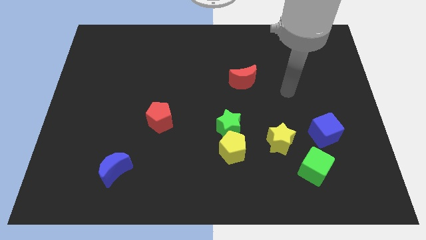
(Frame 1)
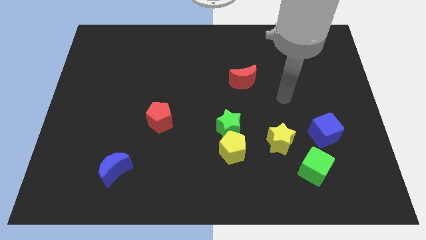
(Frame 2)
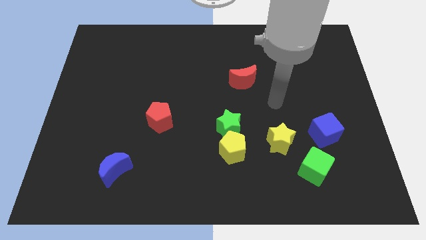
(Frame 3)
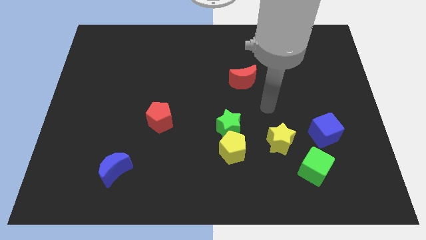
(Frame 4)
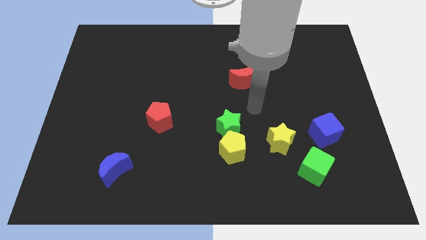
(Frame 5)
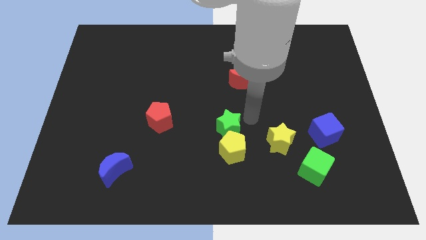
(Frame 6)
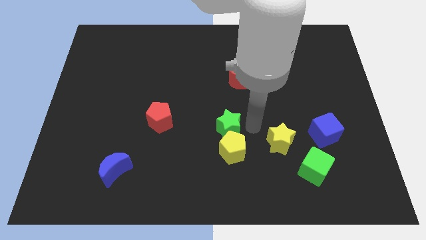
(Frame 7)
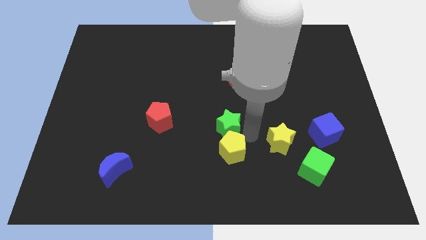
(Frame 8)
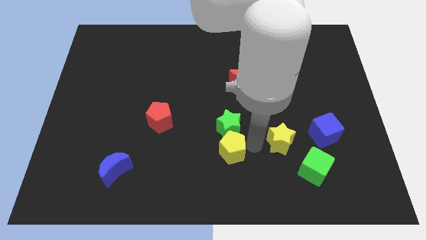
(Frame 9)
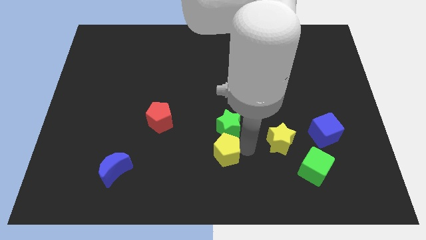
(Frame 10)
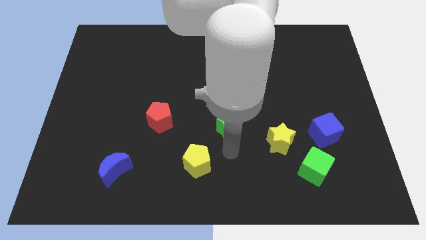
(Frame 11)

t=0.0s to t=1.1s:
separate the green star from the yellow pentagon

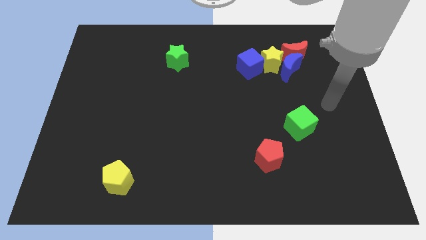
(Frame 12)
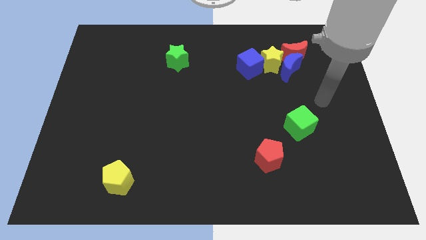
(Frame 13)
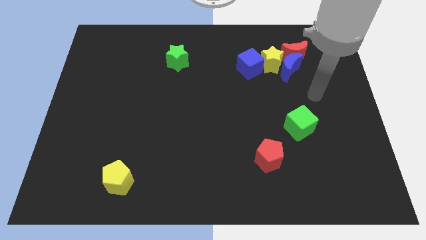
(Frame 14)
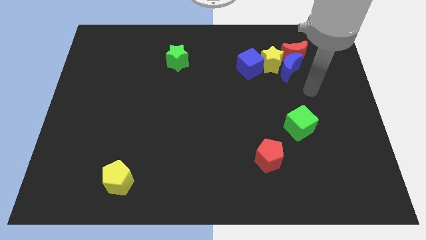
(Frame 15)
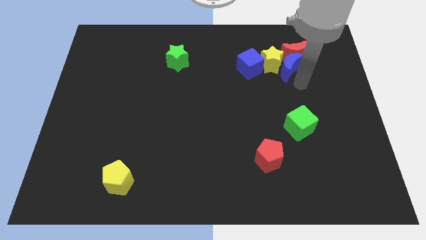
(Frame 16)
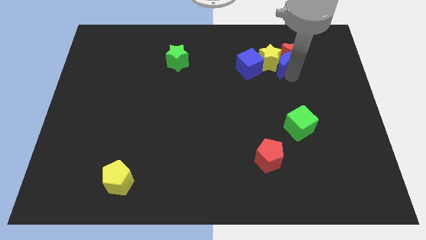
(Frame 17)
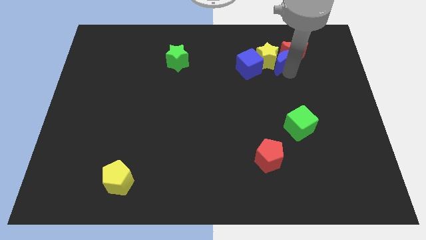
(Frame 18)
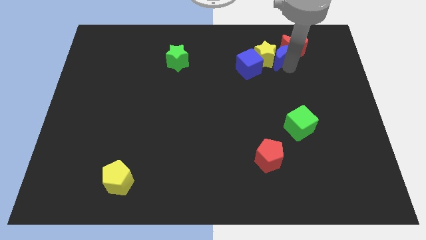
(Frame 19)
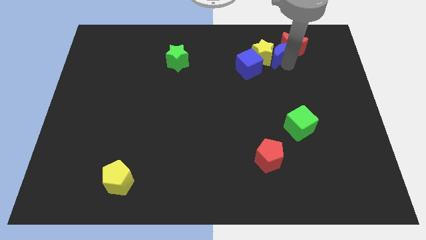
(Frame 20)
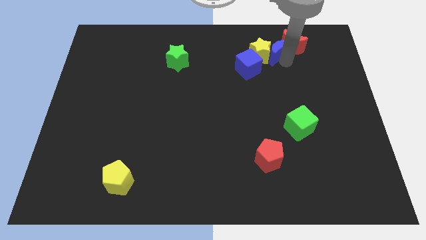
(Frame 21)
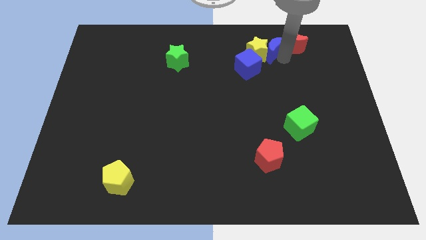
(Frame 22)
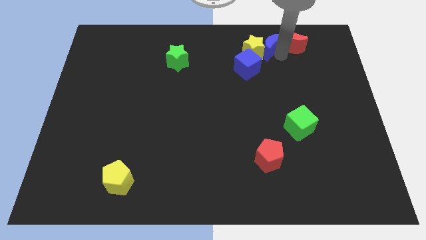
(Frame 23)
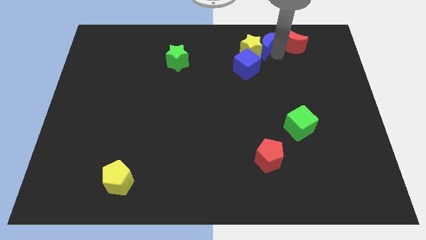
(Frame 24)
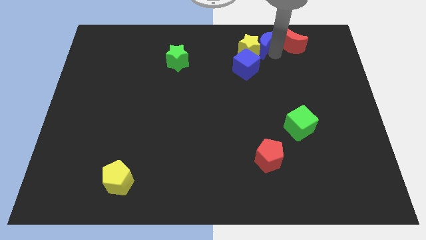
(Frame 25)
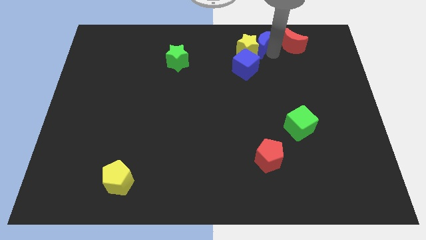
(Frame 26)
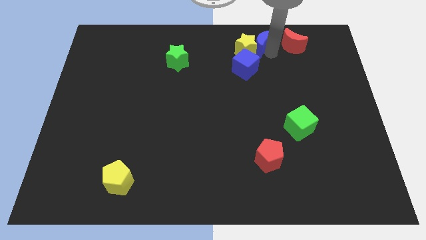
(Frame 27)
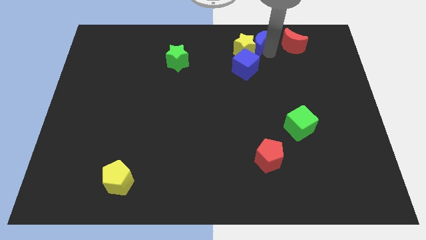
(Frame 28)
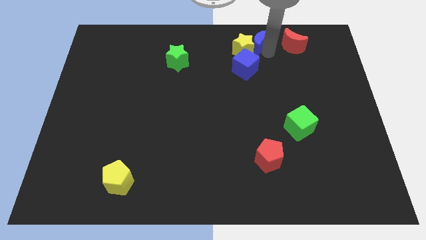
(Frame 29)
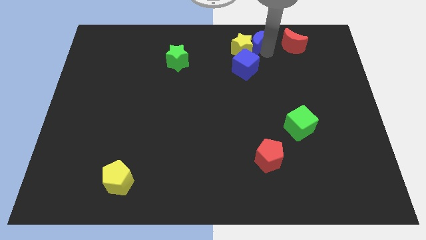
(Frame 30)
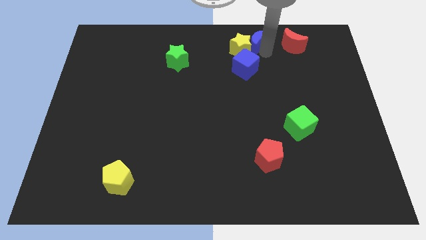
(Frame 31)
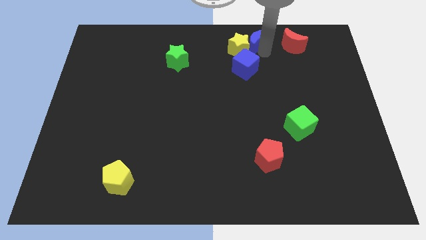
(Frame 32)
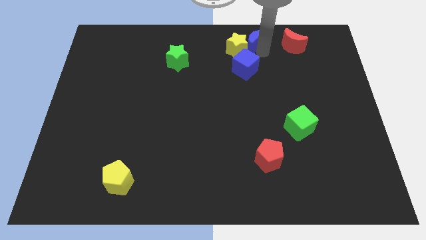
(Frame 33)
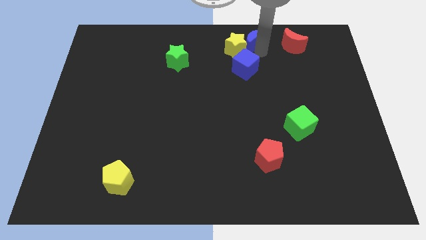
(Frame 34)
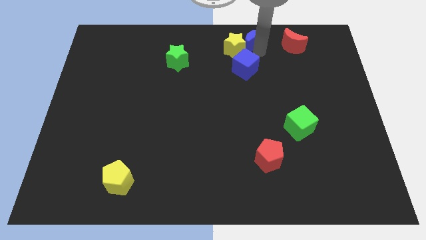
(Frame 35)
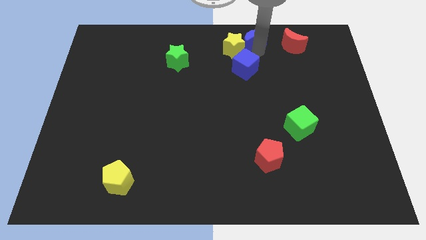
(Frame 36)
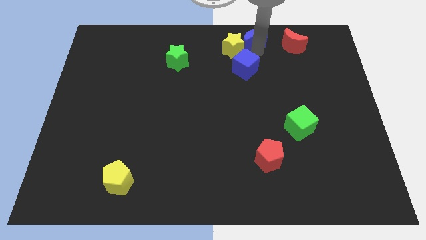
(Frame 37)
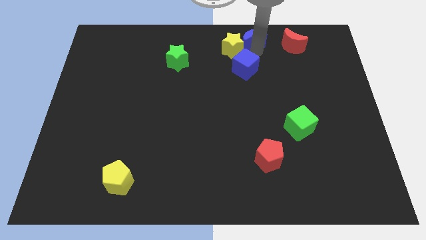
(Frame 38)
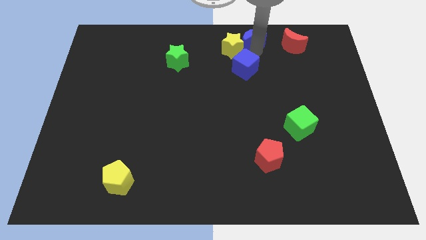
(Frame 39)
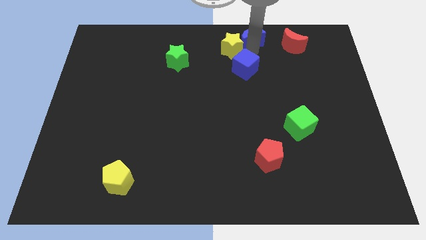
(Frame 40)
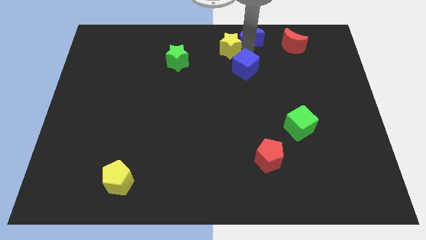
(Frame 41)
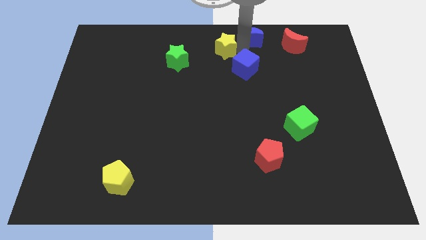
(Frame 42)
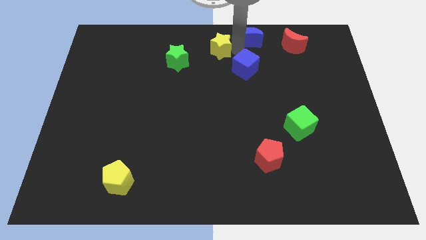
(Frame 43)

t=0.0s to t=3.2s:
separate the yellow star from the blue moon, blue cube, and red moon

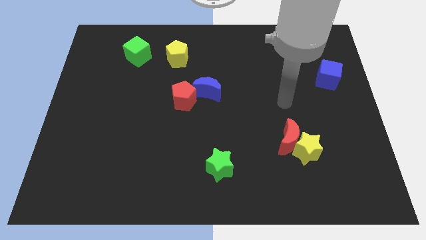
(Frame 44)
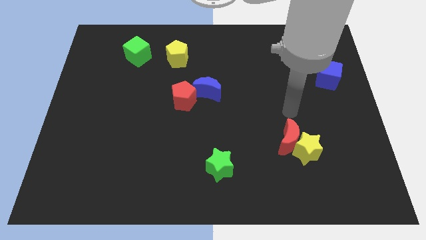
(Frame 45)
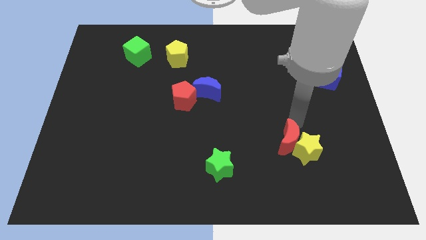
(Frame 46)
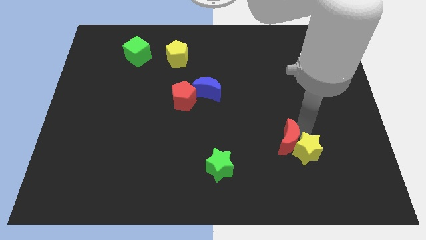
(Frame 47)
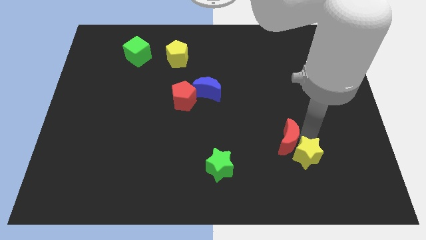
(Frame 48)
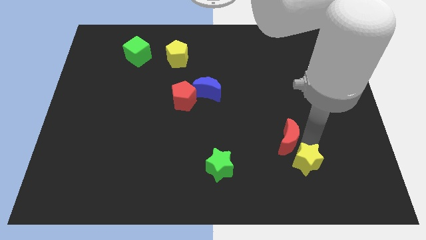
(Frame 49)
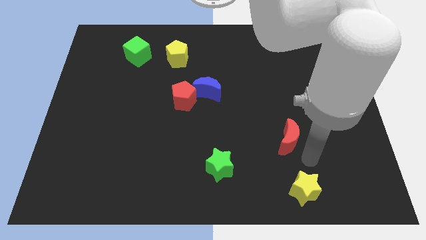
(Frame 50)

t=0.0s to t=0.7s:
move the red moon away from the yellow star

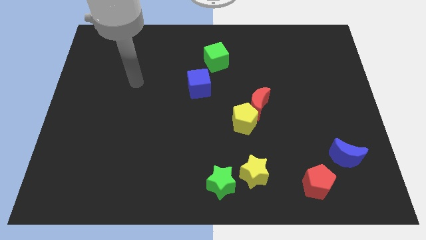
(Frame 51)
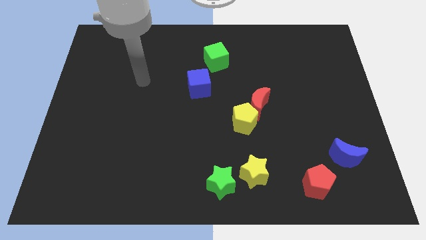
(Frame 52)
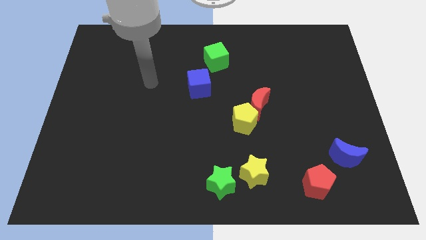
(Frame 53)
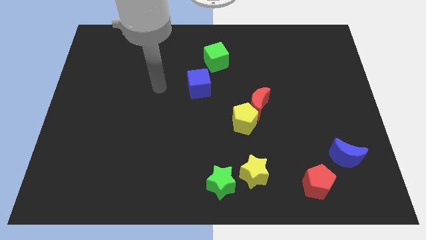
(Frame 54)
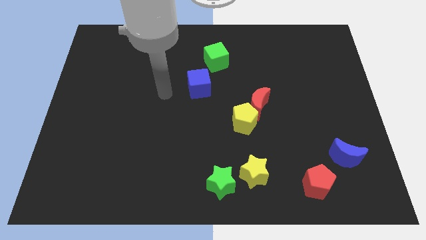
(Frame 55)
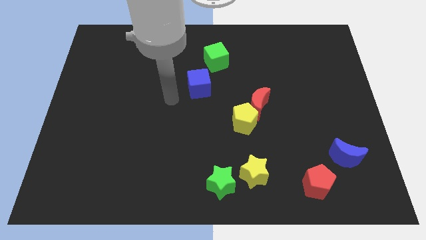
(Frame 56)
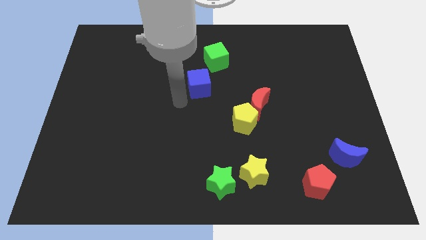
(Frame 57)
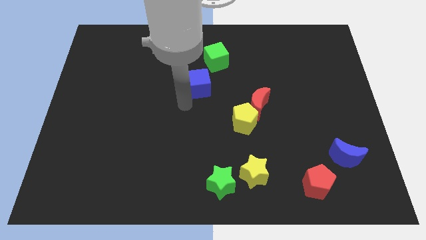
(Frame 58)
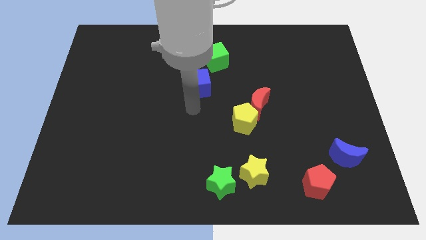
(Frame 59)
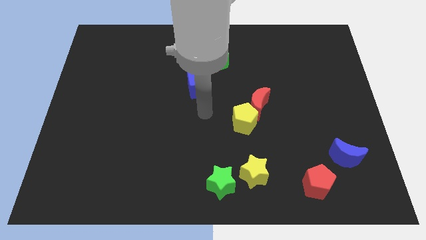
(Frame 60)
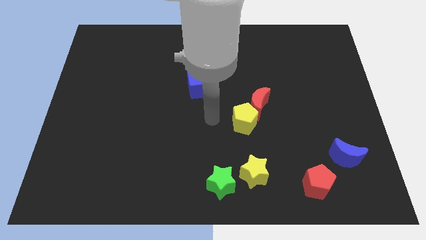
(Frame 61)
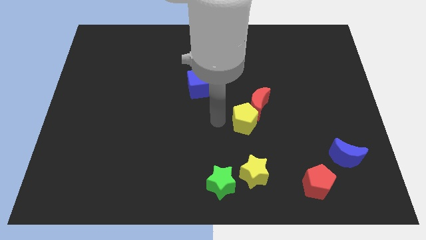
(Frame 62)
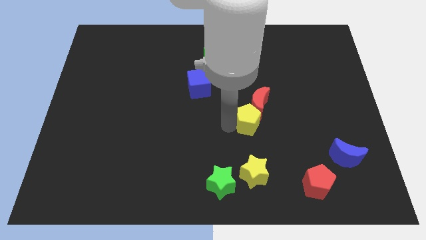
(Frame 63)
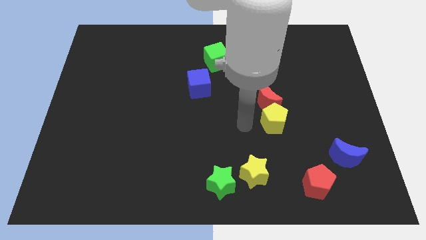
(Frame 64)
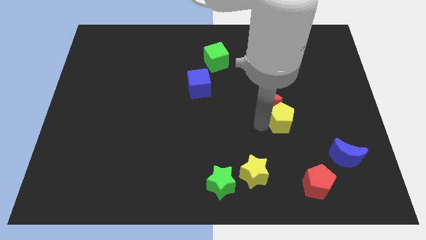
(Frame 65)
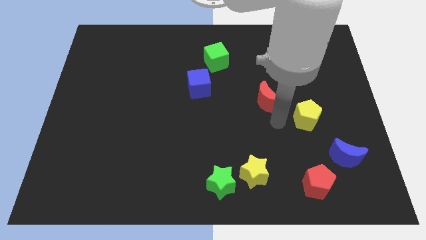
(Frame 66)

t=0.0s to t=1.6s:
separate the red moon from the yellow pentagon

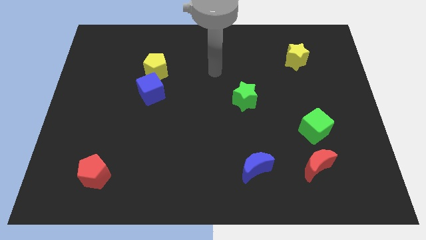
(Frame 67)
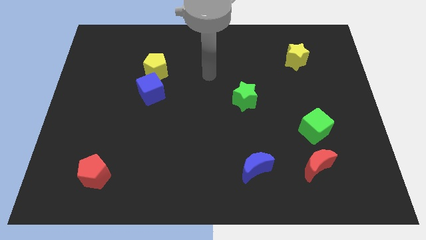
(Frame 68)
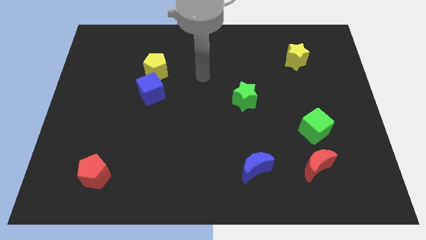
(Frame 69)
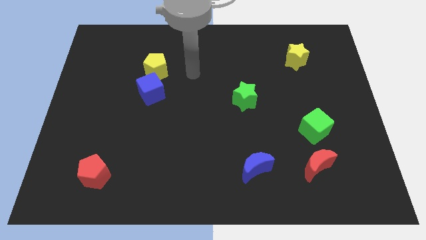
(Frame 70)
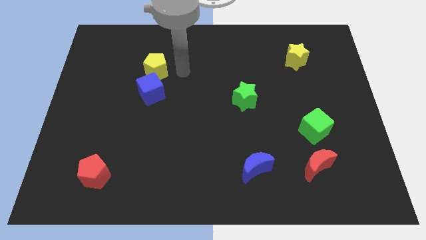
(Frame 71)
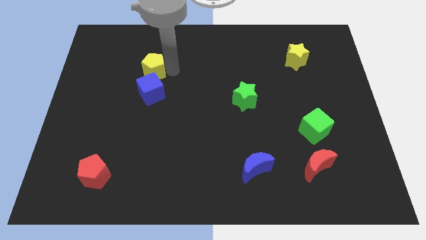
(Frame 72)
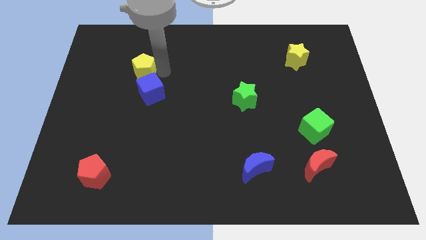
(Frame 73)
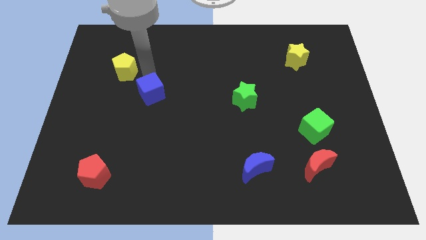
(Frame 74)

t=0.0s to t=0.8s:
separate the blue cube from the yellow pentagon

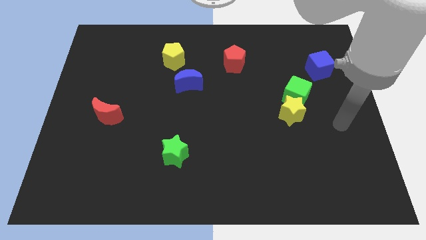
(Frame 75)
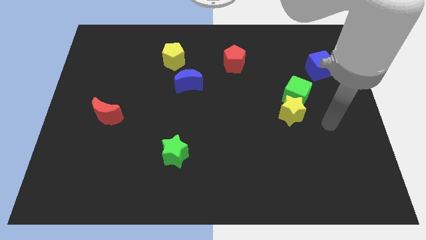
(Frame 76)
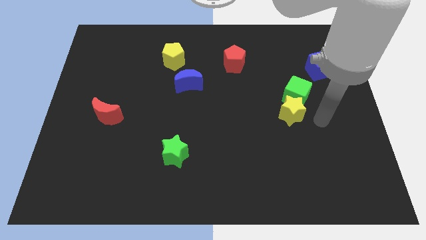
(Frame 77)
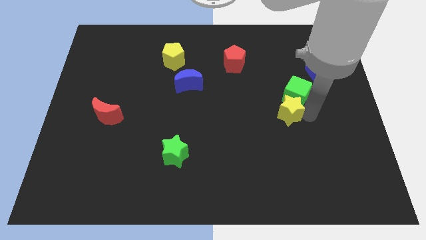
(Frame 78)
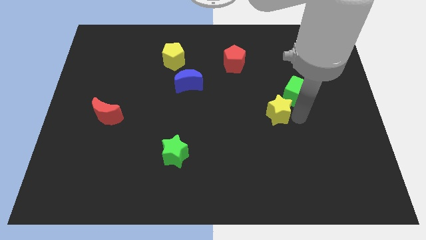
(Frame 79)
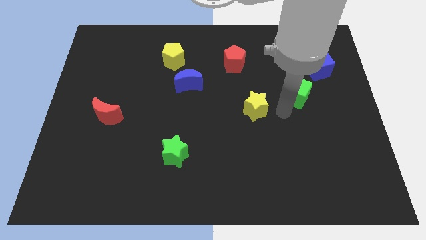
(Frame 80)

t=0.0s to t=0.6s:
separate the green cube from the yellow star

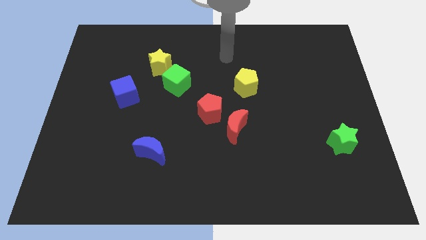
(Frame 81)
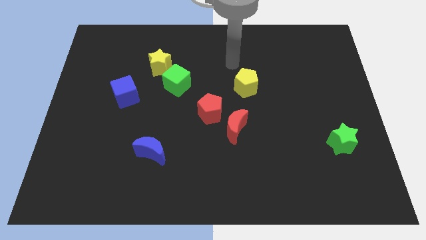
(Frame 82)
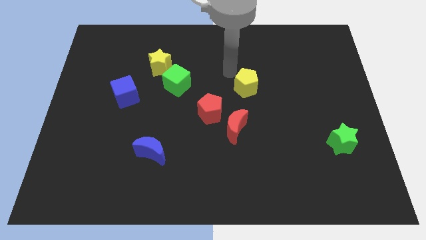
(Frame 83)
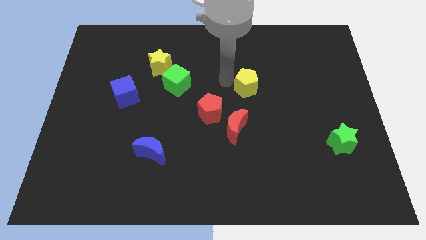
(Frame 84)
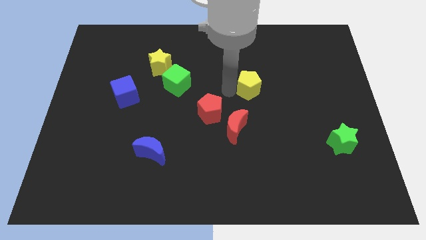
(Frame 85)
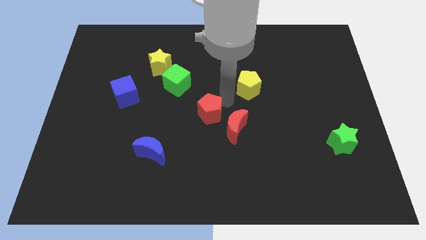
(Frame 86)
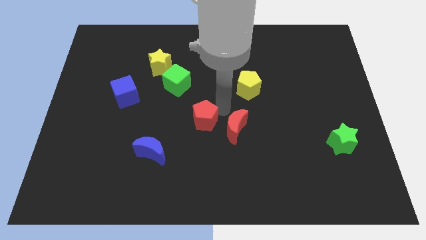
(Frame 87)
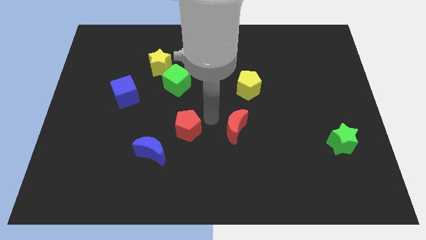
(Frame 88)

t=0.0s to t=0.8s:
move the red moon away from the red pentagon

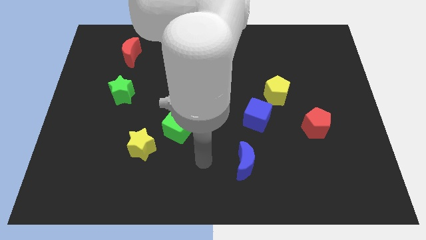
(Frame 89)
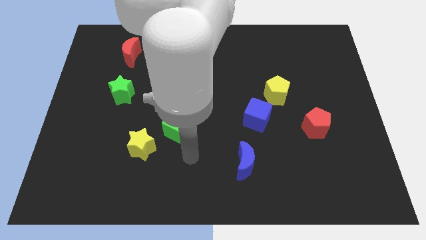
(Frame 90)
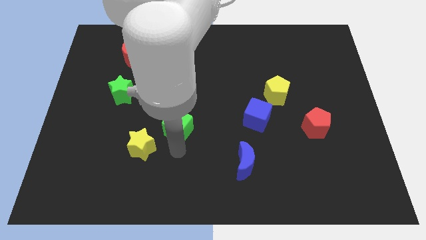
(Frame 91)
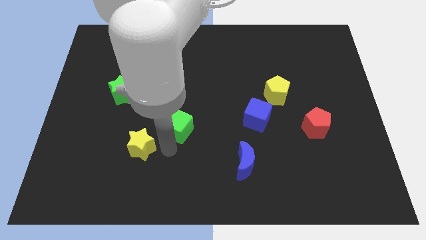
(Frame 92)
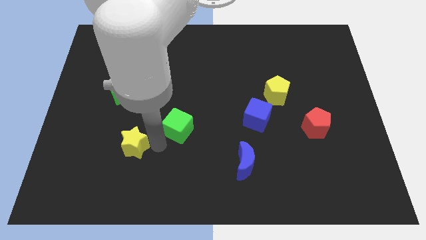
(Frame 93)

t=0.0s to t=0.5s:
pull the green cube apart from the yellow star
